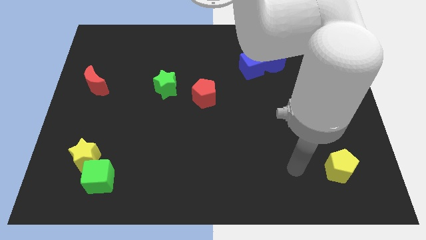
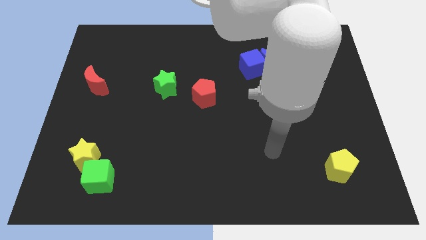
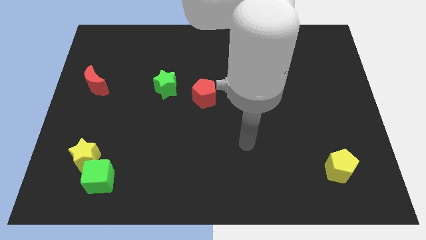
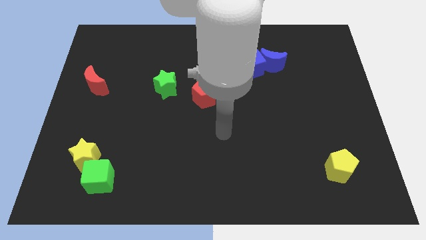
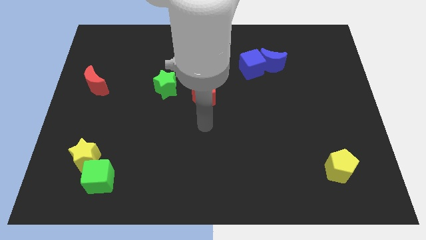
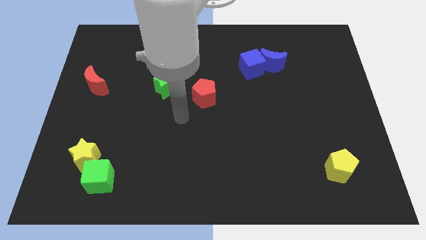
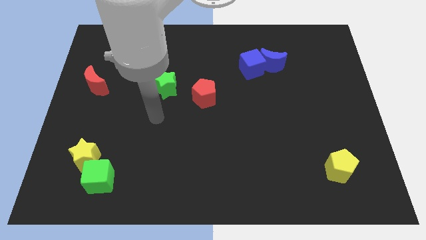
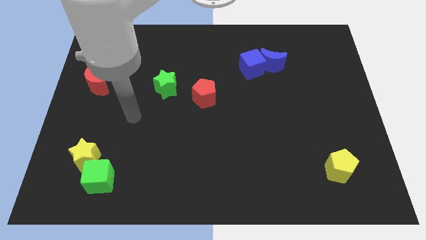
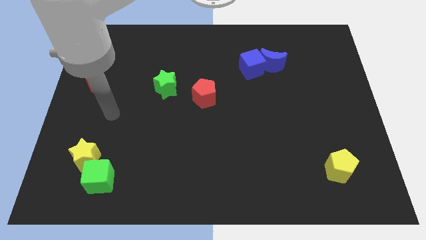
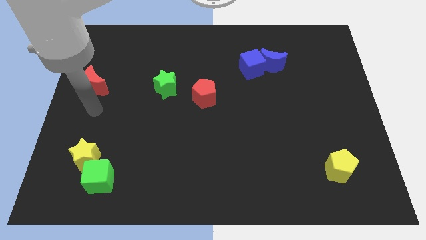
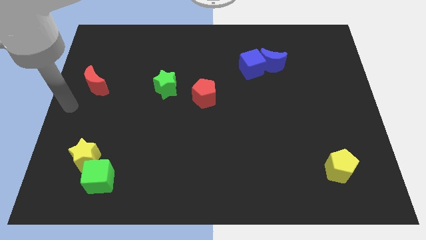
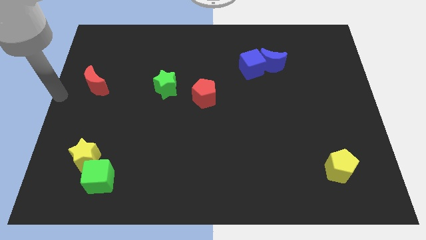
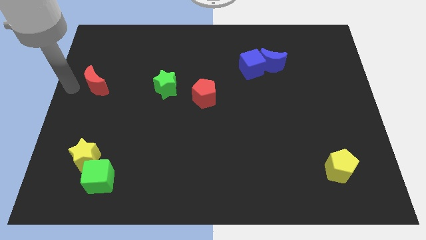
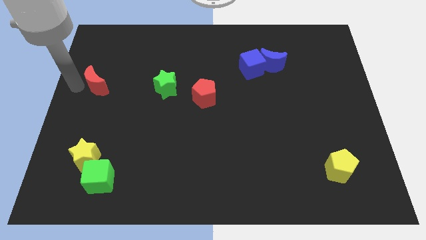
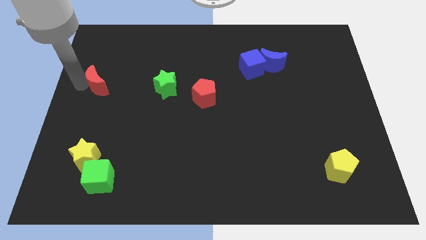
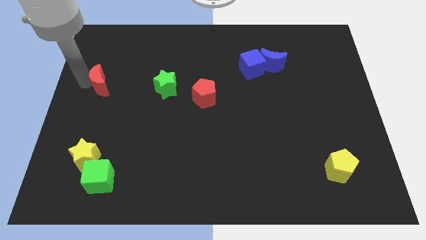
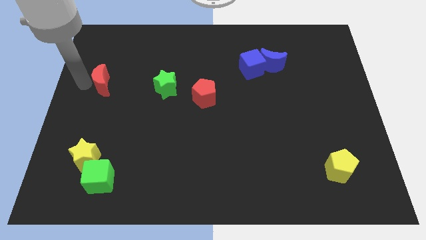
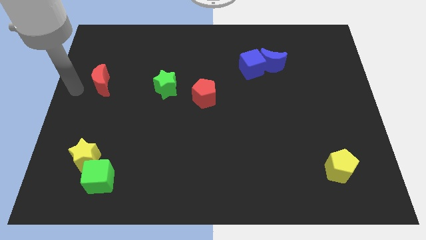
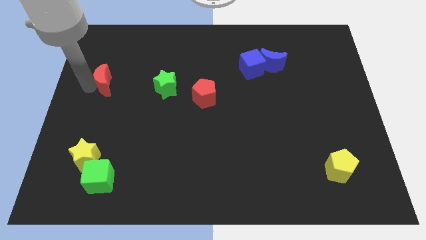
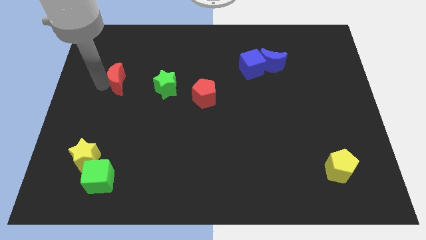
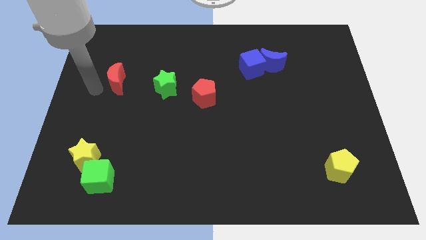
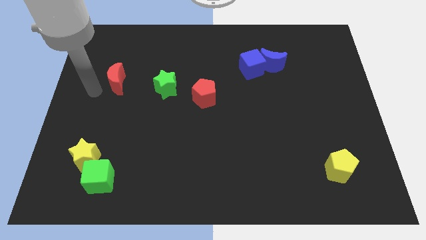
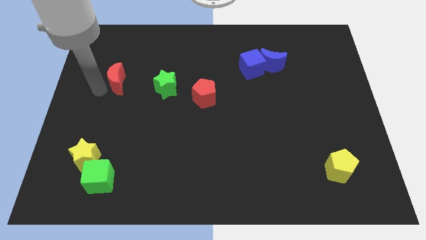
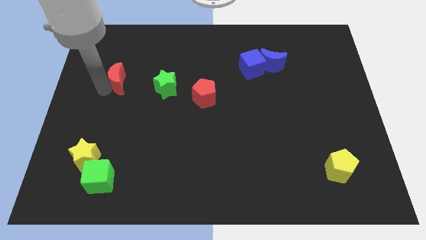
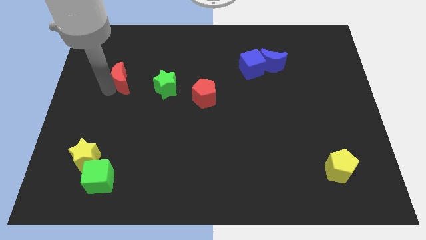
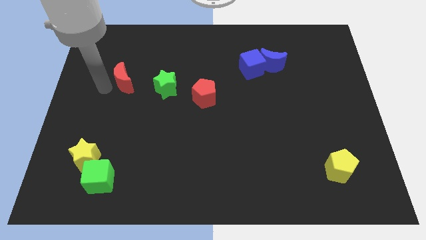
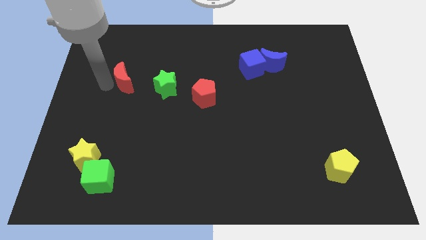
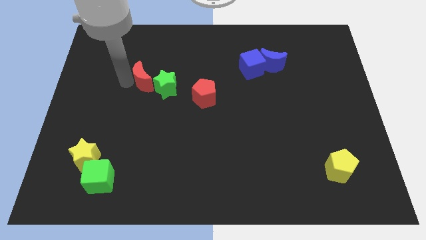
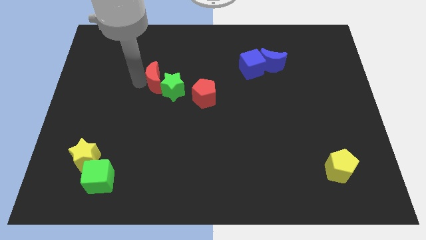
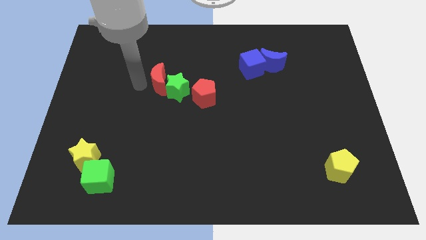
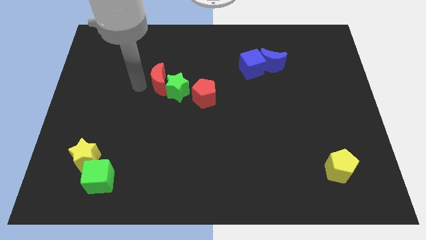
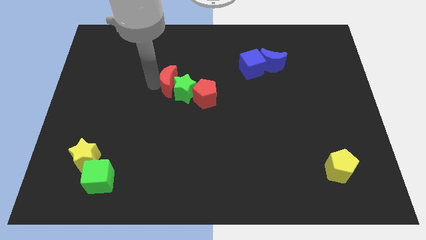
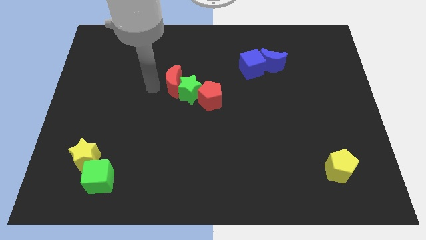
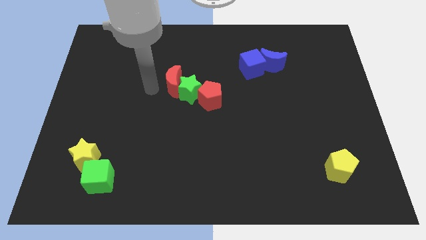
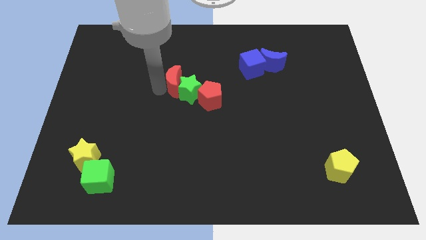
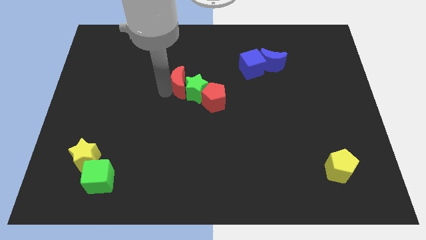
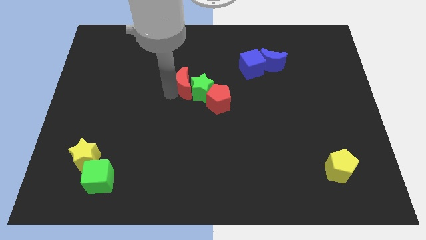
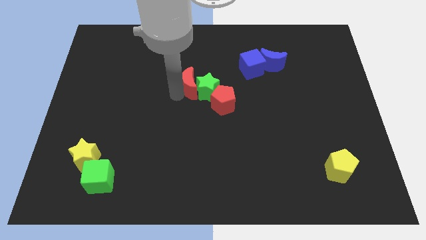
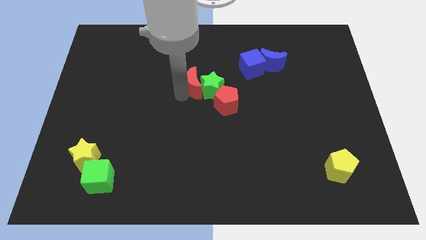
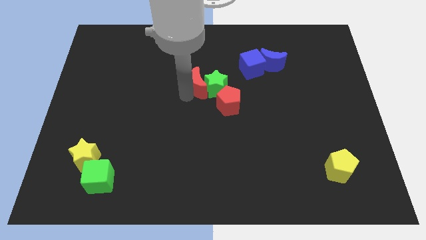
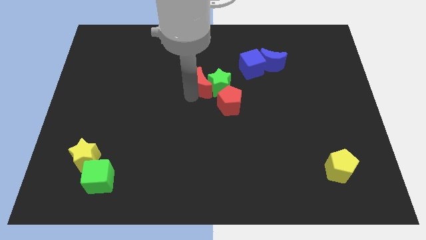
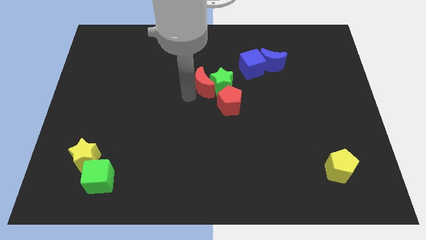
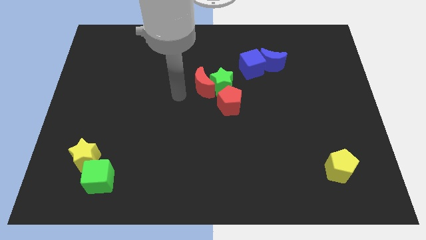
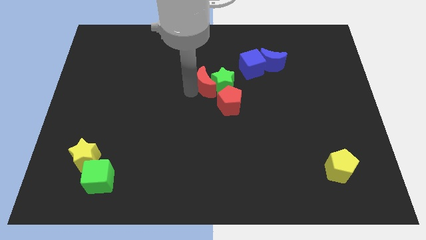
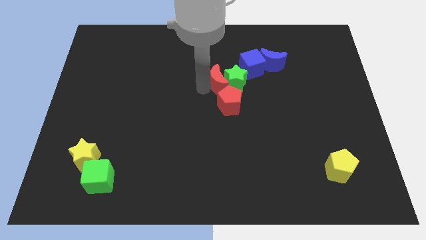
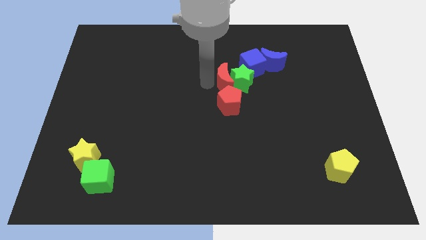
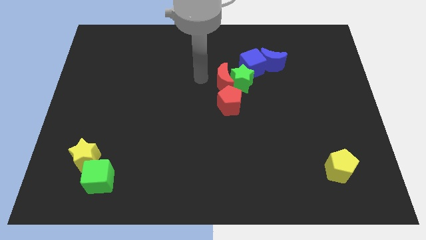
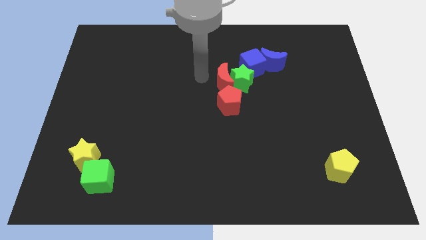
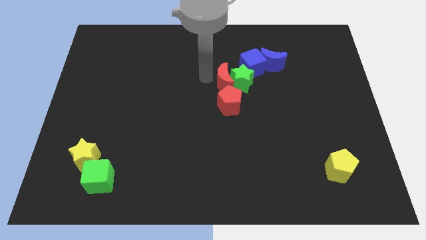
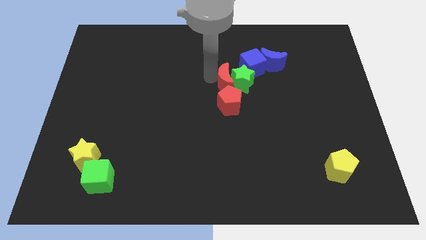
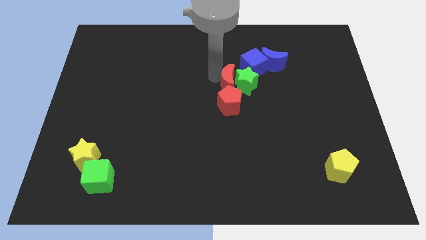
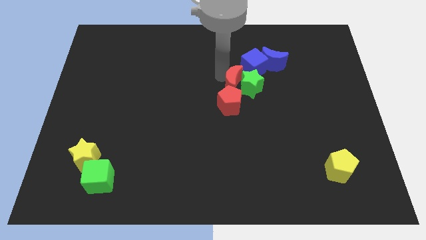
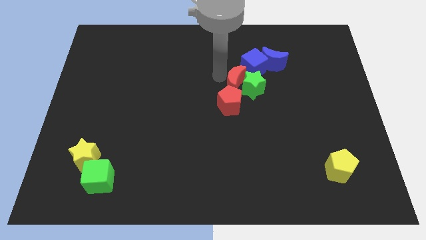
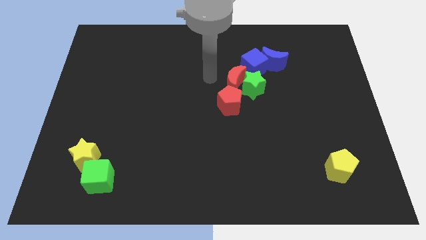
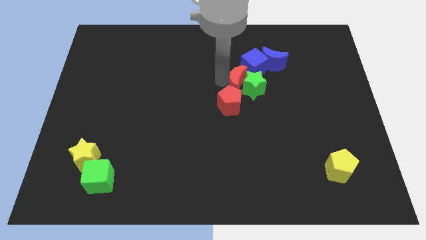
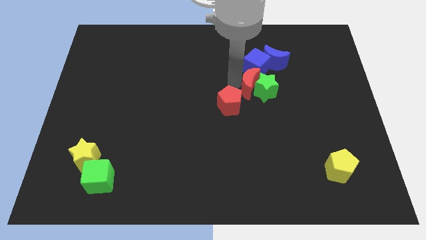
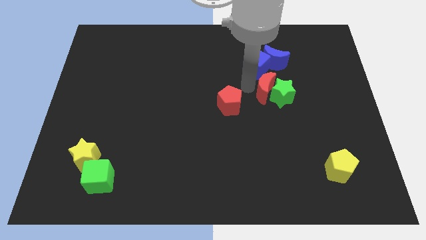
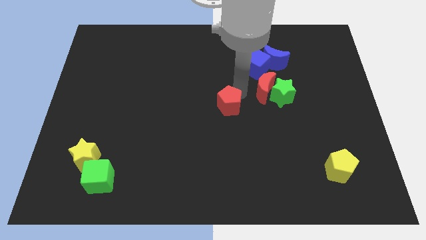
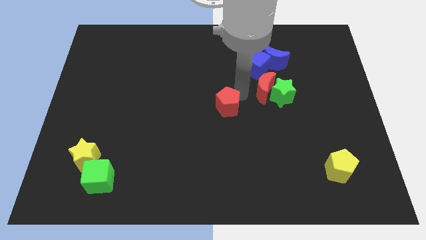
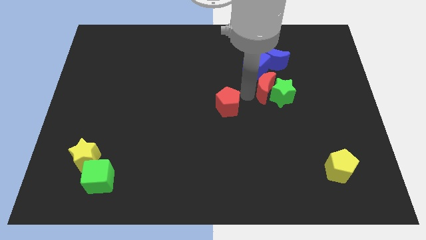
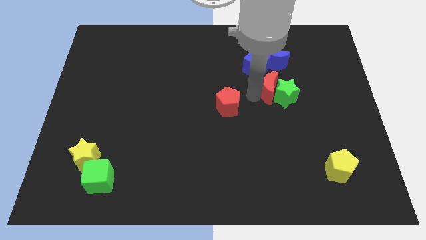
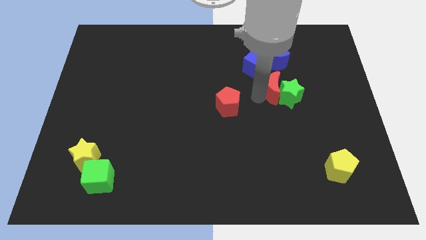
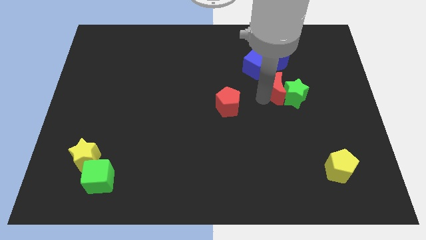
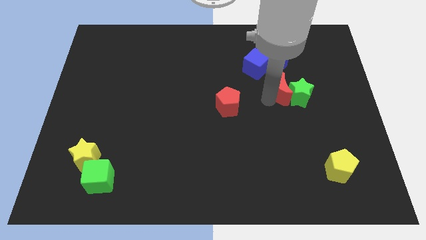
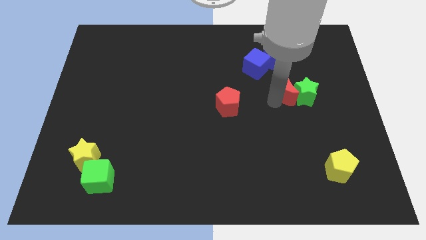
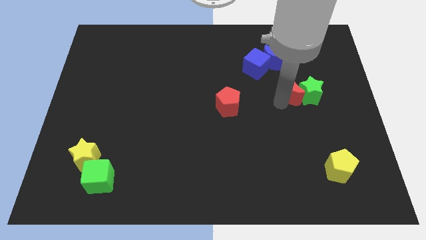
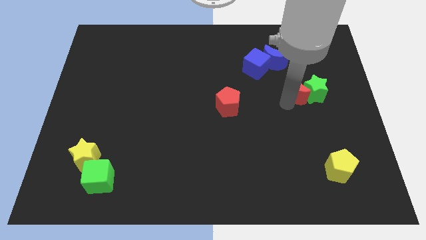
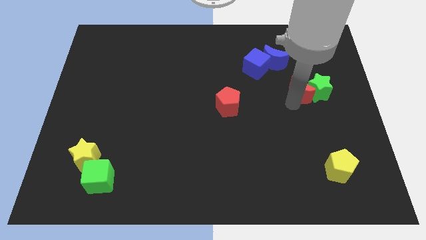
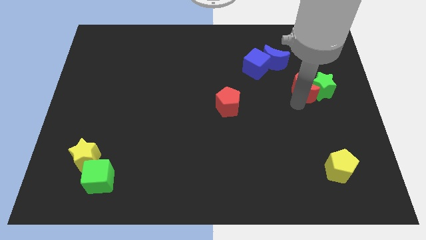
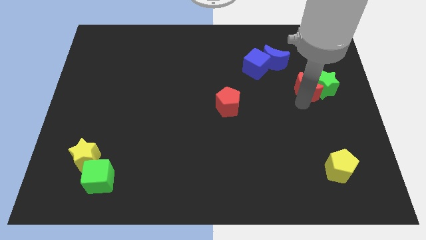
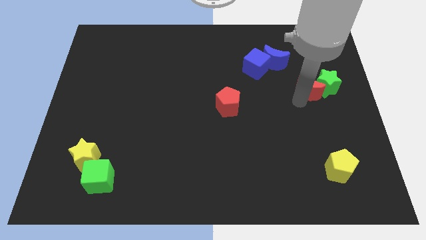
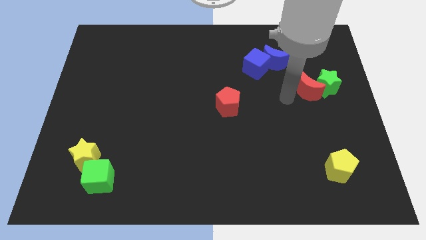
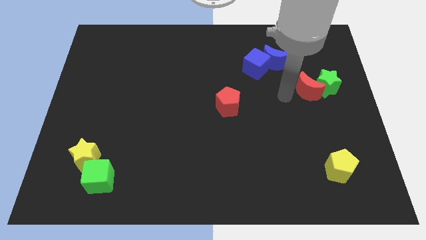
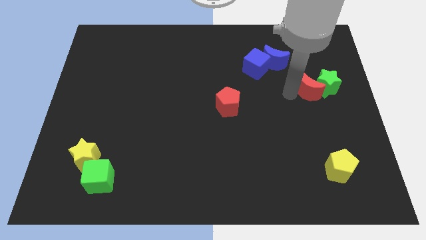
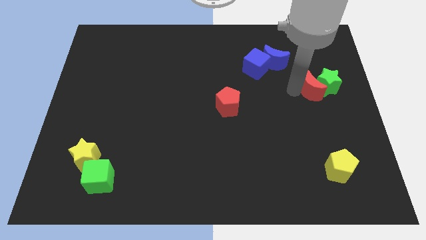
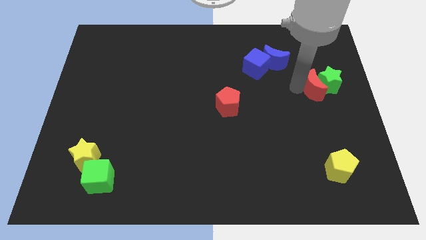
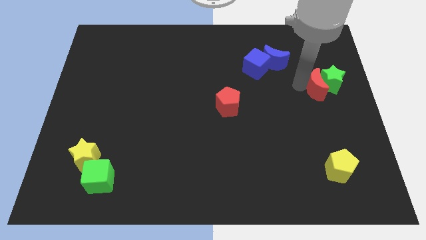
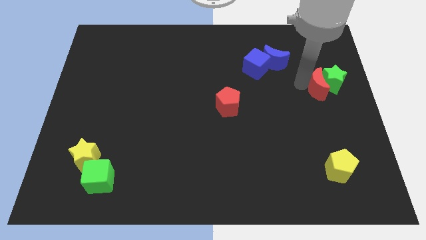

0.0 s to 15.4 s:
put the red moon to the center right

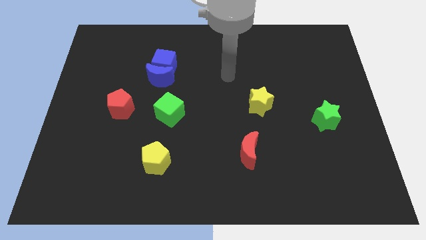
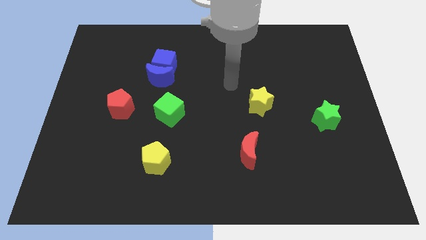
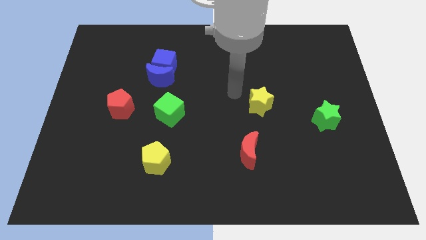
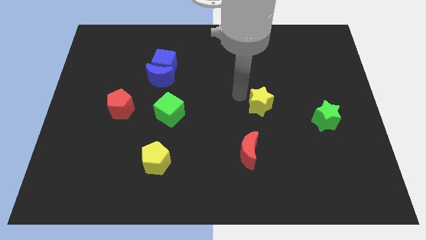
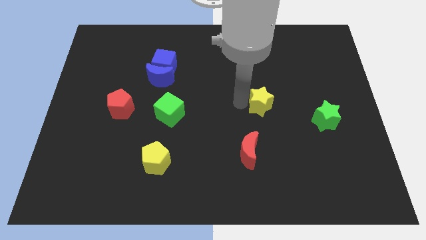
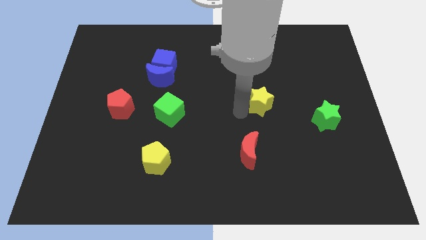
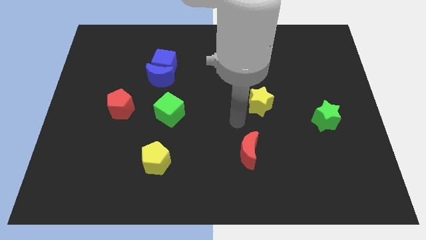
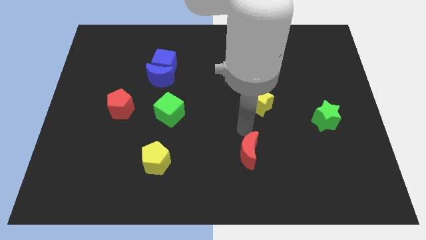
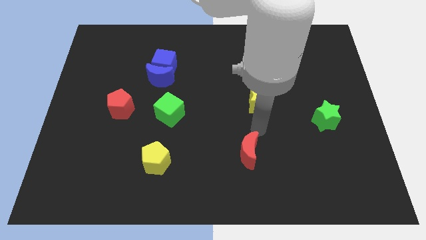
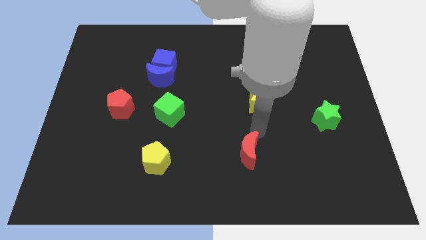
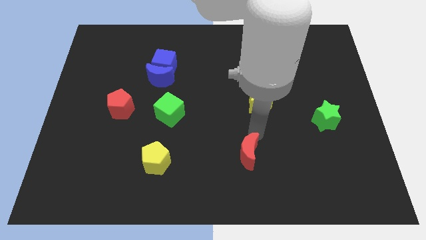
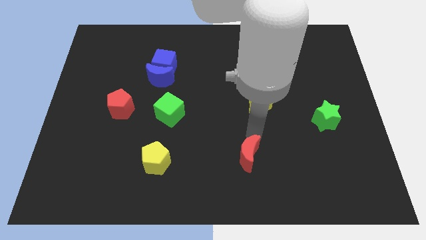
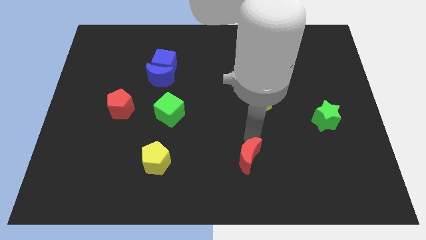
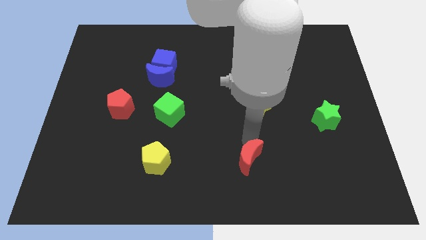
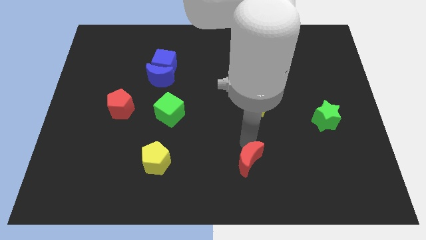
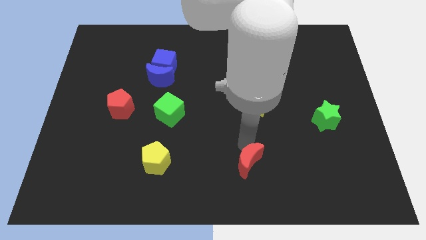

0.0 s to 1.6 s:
push the red moon to the bottom
